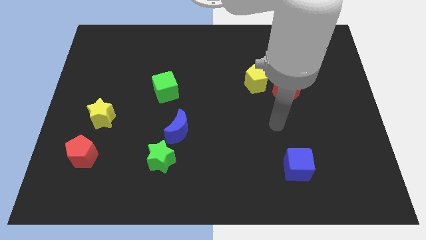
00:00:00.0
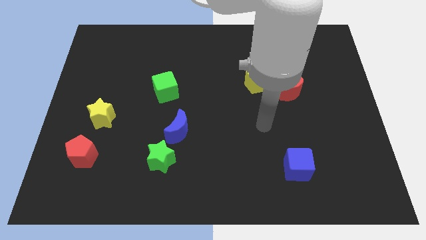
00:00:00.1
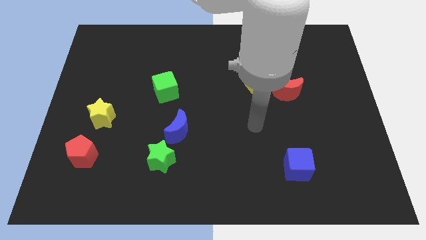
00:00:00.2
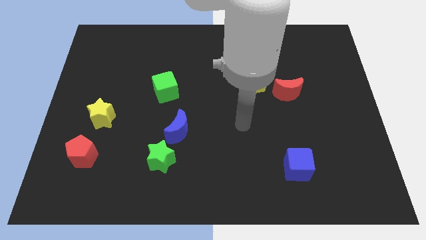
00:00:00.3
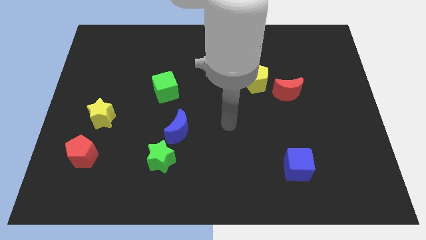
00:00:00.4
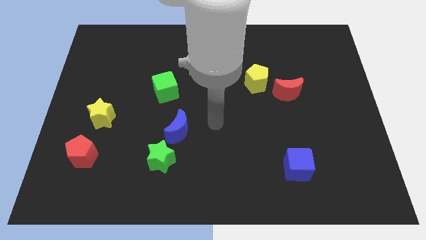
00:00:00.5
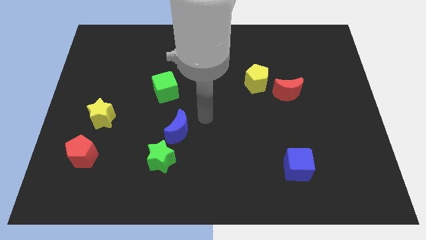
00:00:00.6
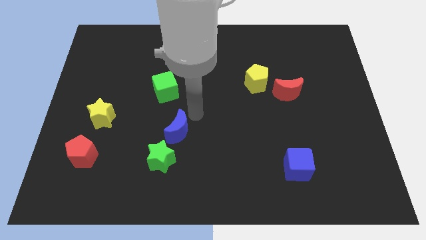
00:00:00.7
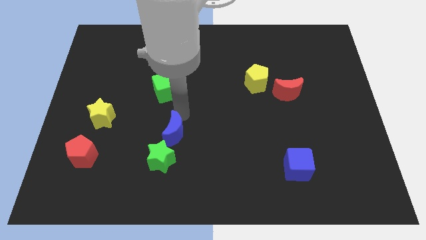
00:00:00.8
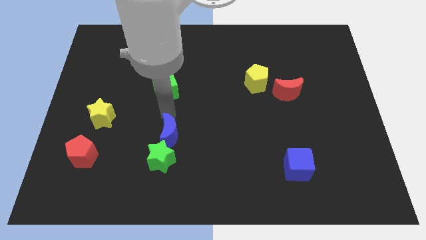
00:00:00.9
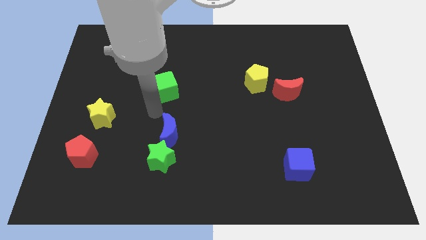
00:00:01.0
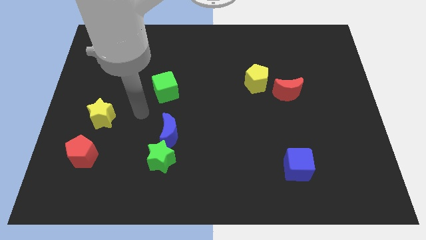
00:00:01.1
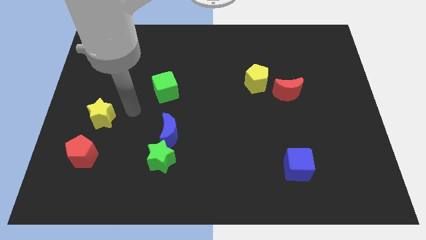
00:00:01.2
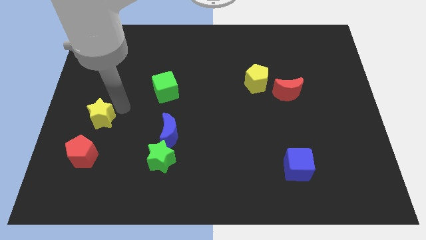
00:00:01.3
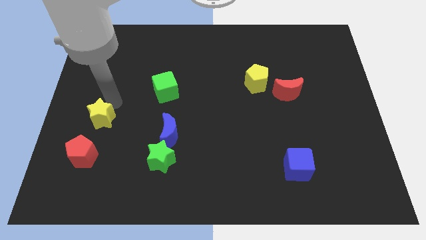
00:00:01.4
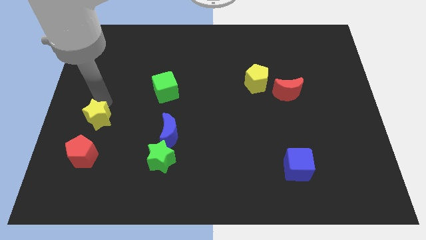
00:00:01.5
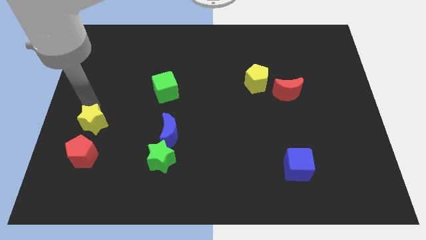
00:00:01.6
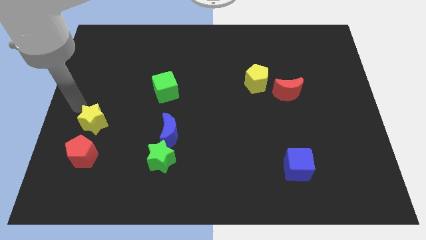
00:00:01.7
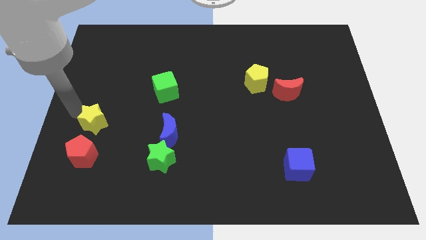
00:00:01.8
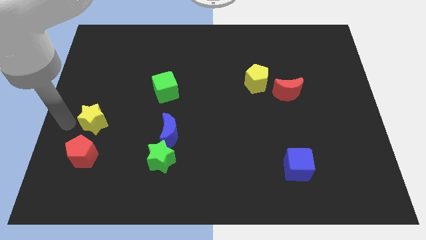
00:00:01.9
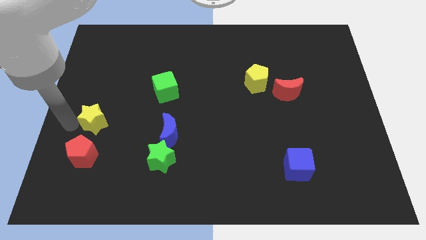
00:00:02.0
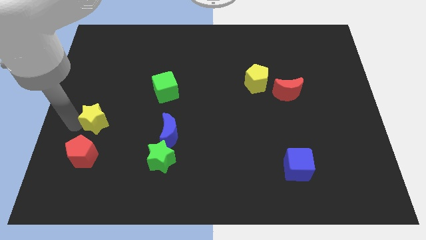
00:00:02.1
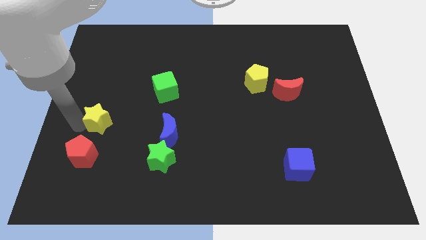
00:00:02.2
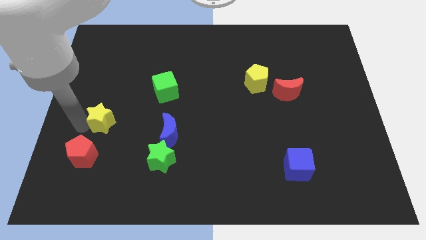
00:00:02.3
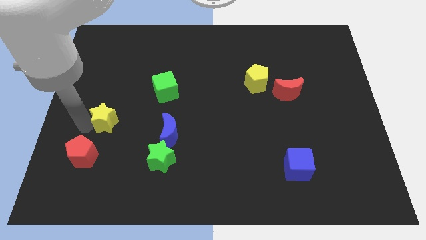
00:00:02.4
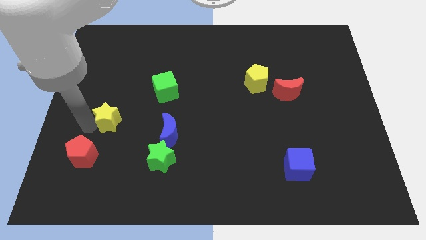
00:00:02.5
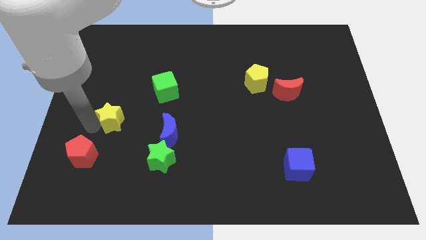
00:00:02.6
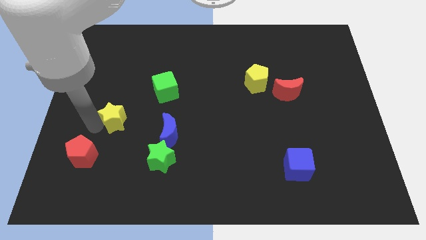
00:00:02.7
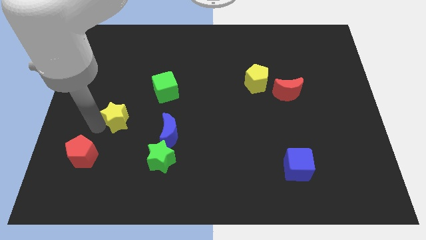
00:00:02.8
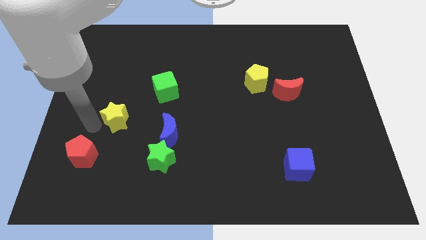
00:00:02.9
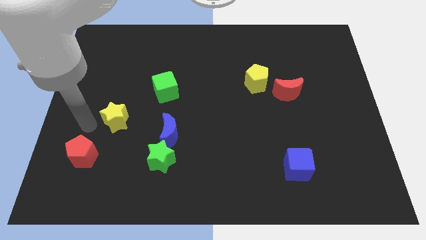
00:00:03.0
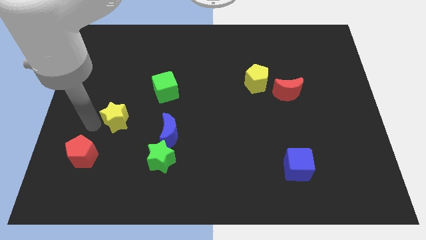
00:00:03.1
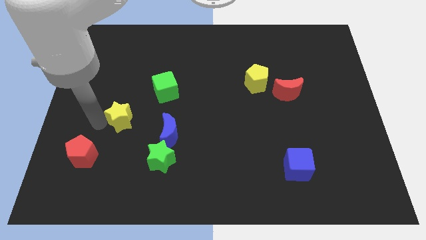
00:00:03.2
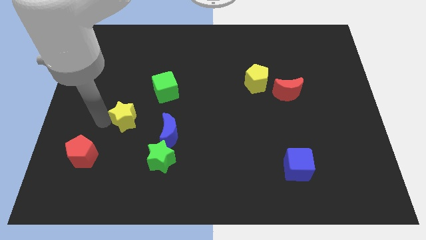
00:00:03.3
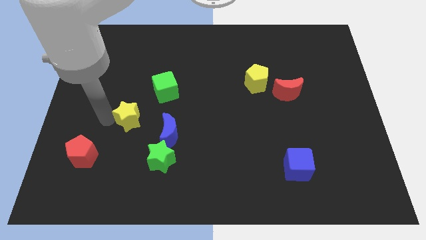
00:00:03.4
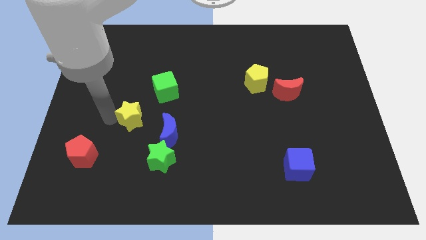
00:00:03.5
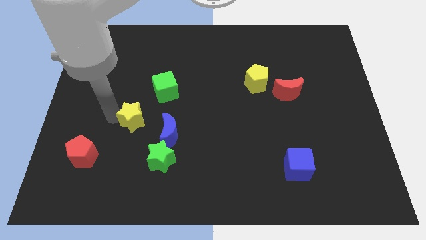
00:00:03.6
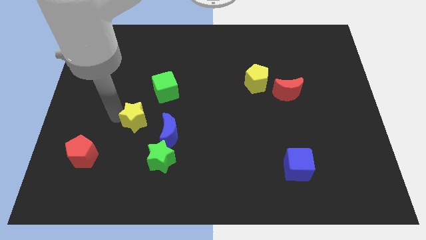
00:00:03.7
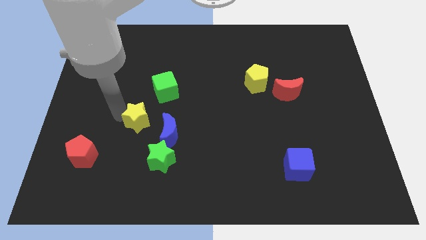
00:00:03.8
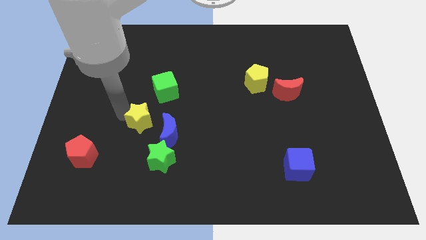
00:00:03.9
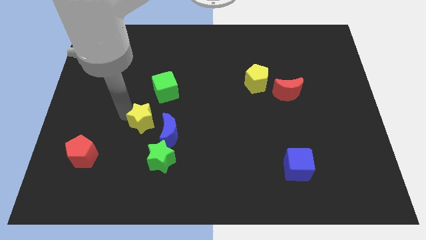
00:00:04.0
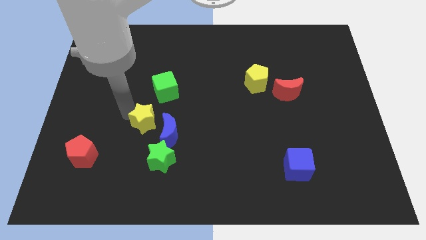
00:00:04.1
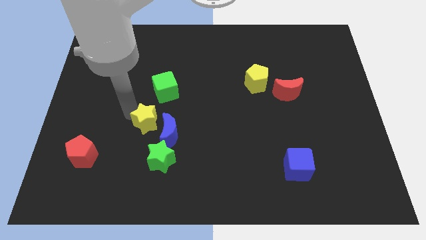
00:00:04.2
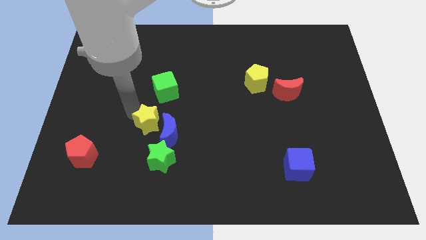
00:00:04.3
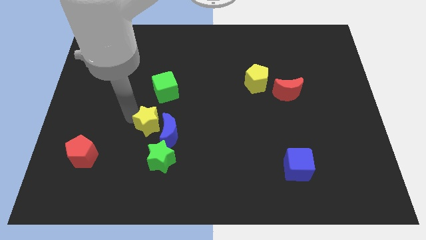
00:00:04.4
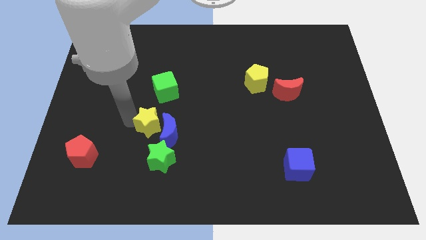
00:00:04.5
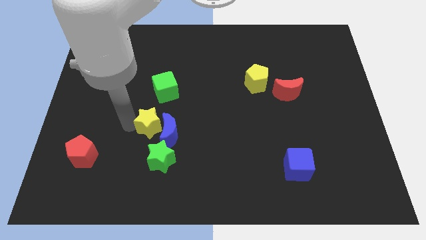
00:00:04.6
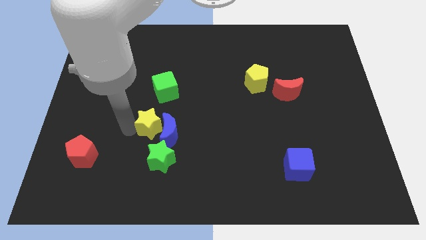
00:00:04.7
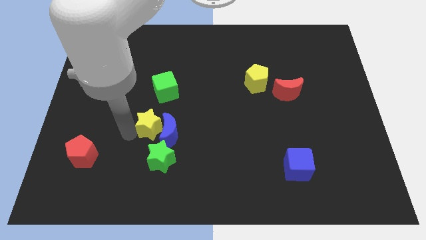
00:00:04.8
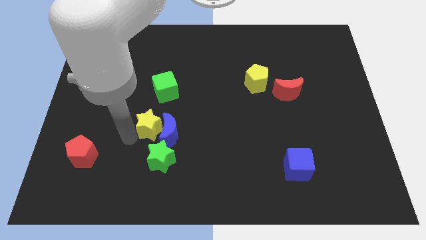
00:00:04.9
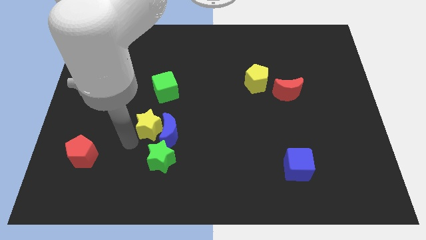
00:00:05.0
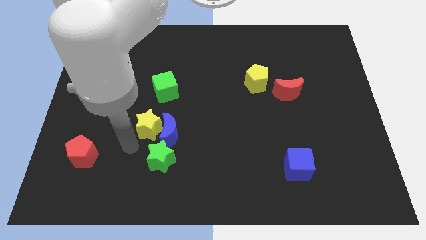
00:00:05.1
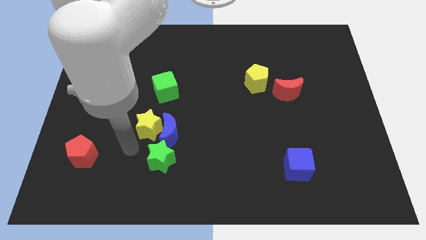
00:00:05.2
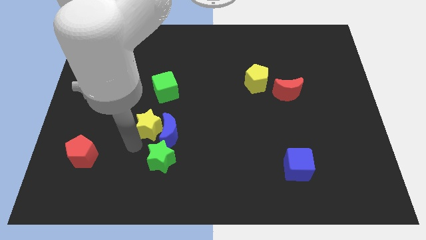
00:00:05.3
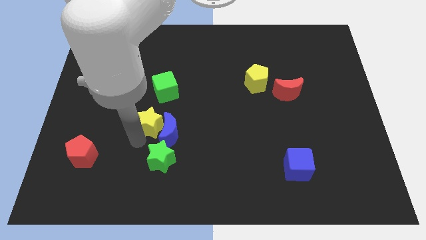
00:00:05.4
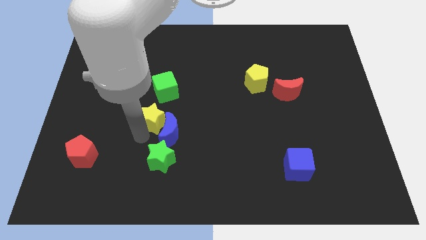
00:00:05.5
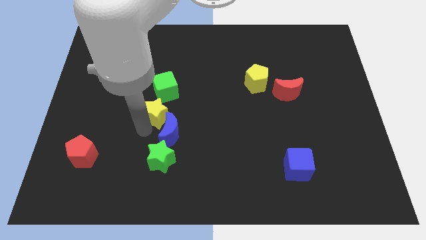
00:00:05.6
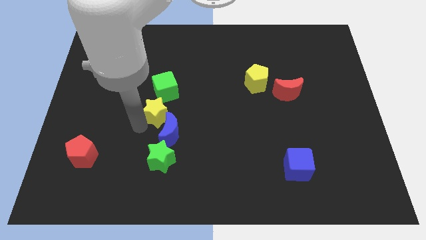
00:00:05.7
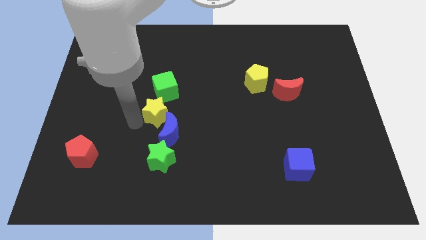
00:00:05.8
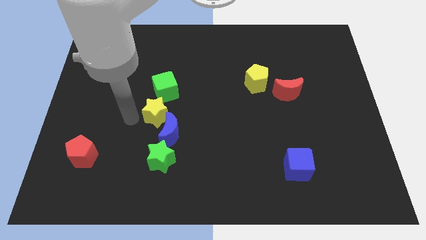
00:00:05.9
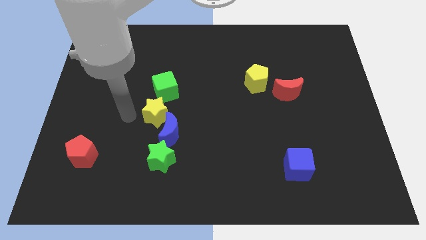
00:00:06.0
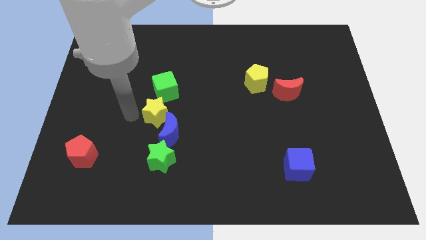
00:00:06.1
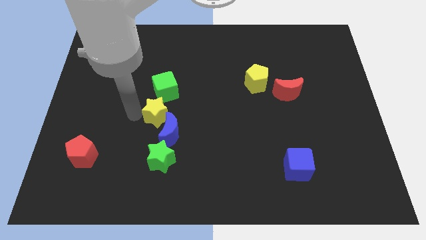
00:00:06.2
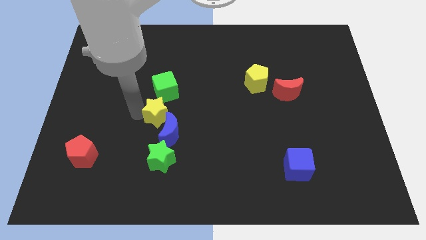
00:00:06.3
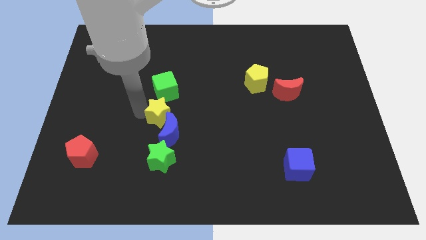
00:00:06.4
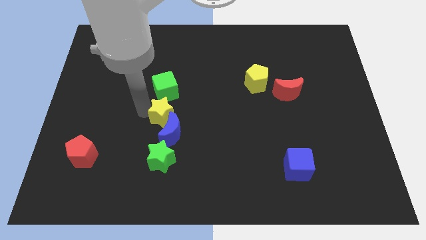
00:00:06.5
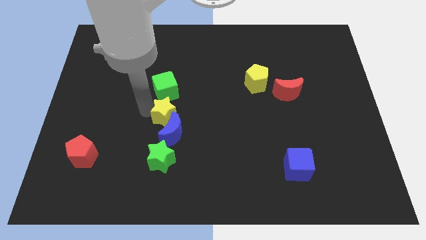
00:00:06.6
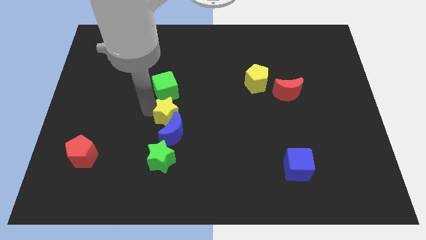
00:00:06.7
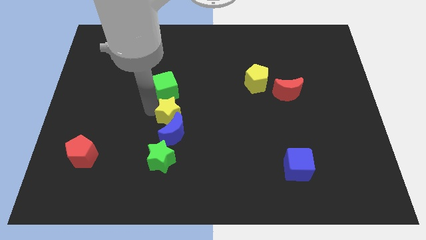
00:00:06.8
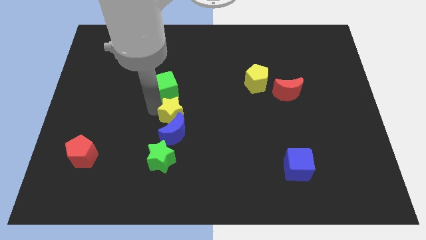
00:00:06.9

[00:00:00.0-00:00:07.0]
push the yellow star diagonally up and to the right of the blue moon
